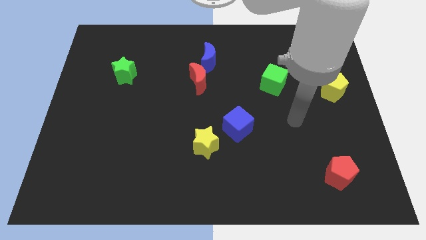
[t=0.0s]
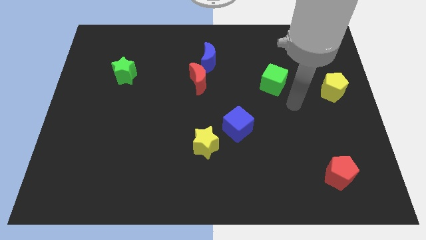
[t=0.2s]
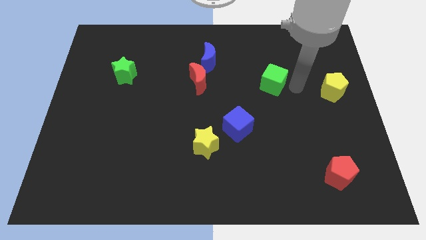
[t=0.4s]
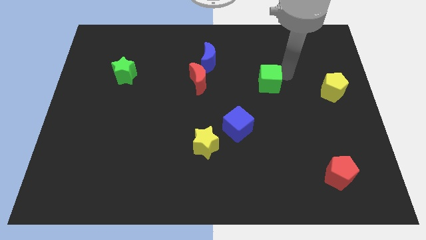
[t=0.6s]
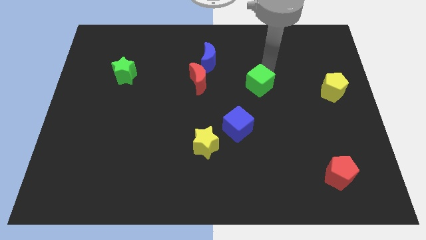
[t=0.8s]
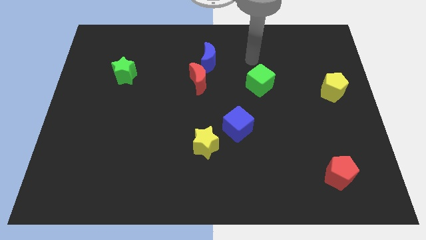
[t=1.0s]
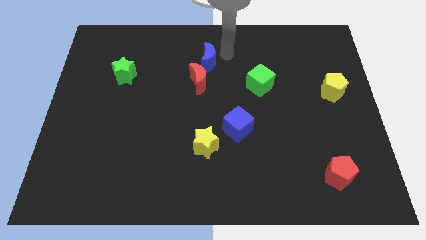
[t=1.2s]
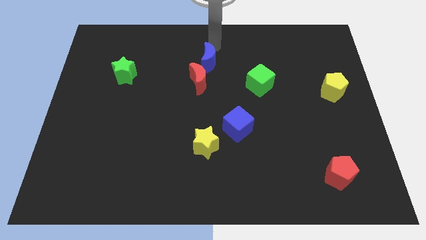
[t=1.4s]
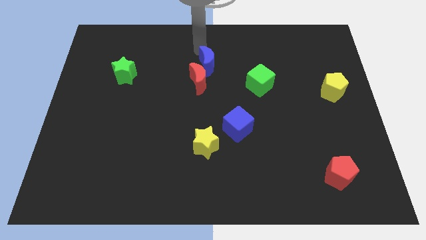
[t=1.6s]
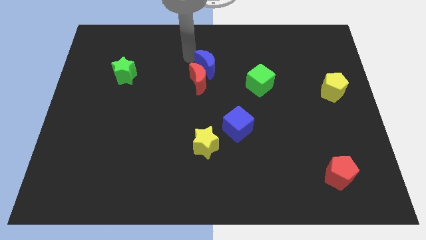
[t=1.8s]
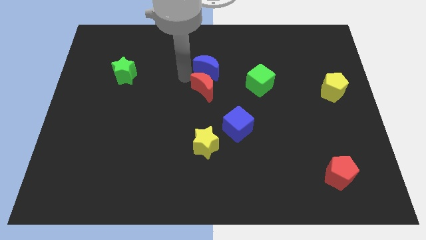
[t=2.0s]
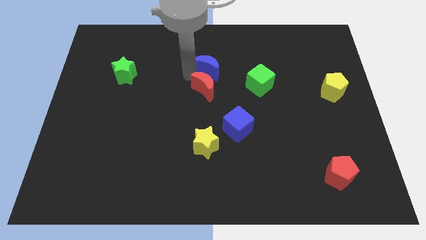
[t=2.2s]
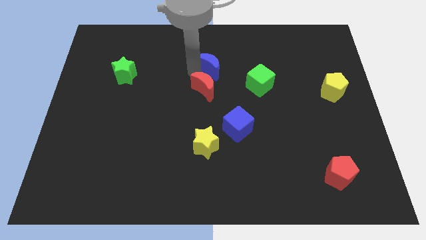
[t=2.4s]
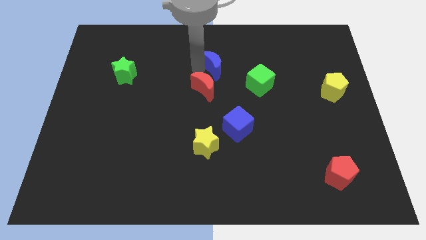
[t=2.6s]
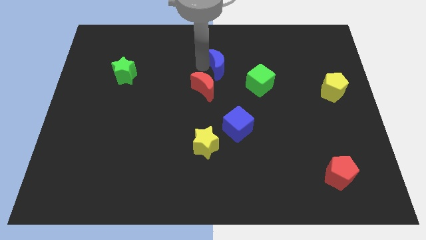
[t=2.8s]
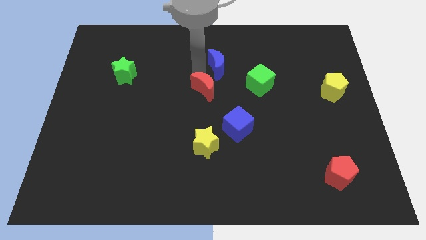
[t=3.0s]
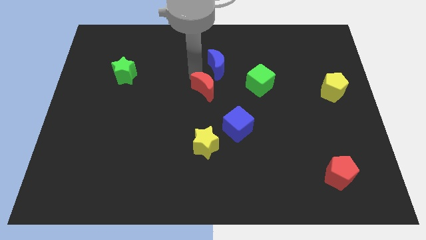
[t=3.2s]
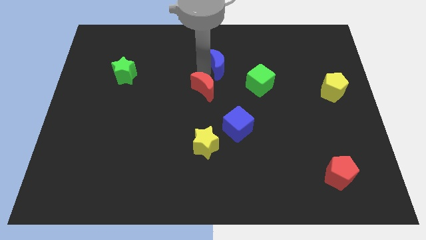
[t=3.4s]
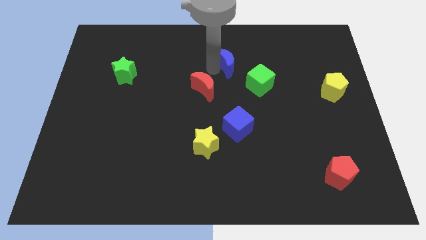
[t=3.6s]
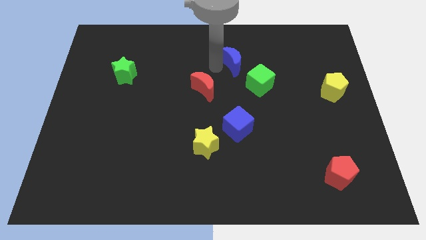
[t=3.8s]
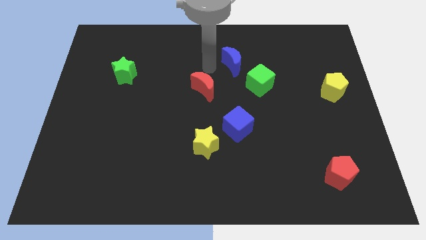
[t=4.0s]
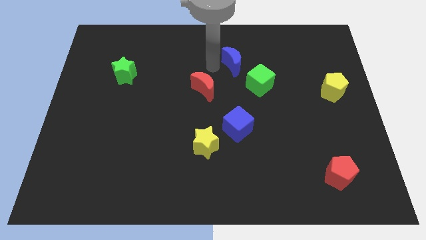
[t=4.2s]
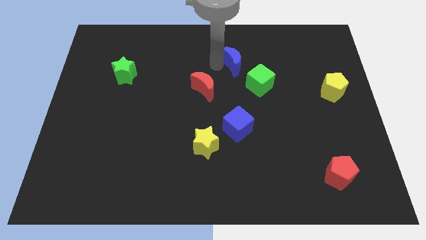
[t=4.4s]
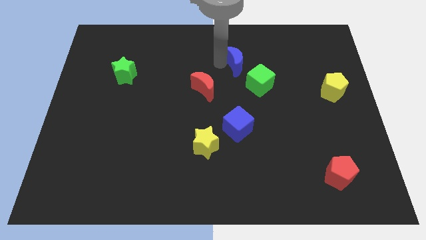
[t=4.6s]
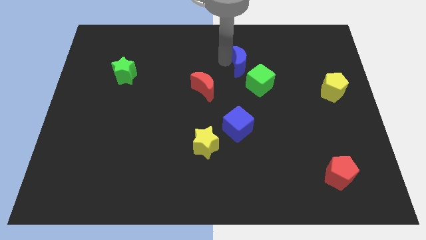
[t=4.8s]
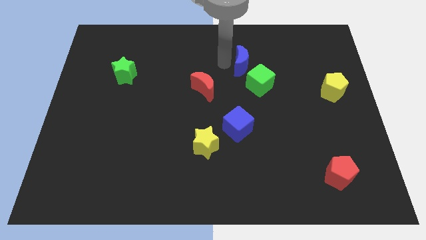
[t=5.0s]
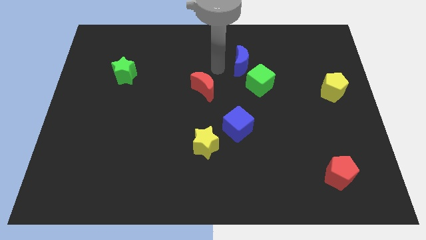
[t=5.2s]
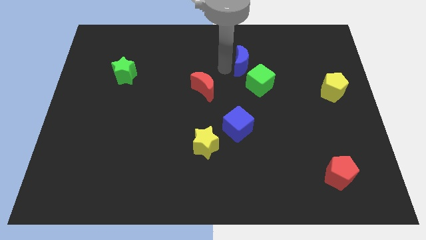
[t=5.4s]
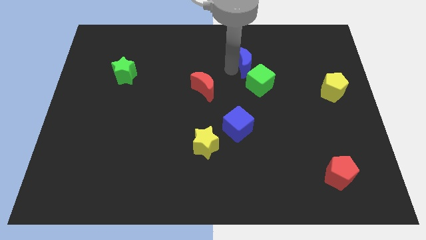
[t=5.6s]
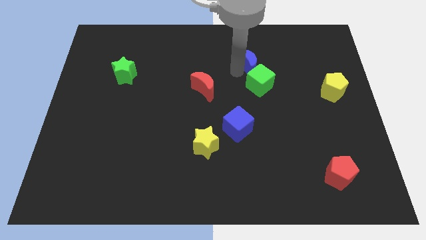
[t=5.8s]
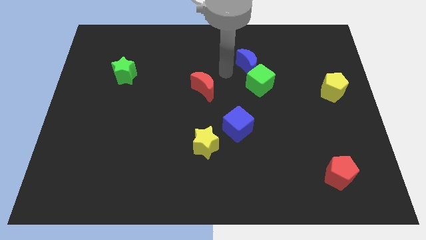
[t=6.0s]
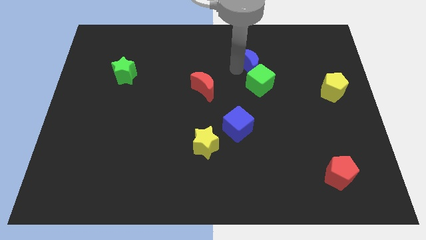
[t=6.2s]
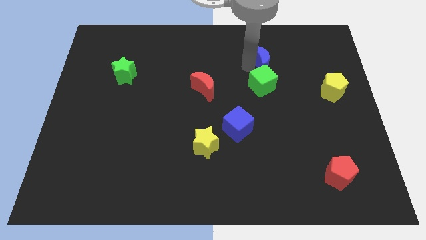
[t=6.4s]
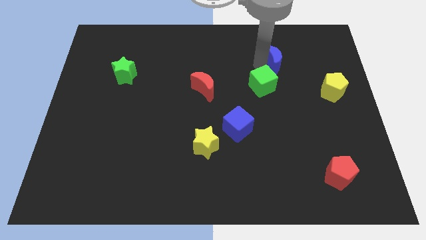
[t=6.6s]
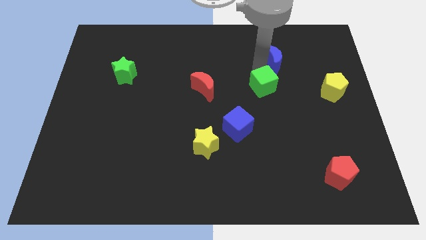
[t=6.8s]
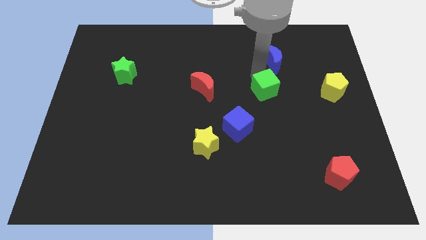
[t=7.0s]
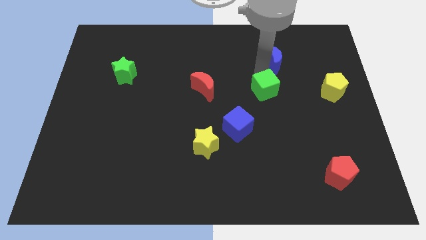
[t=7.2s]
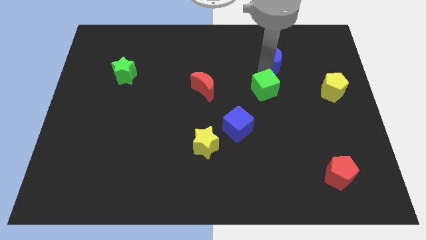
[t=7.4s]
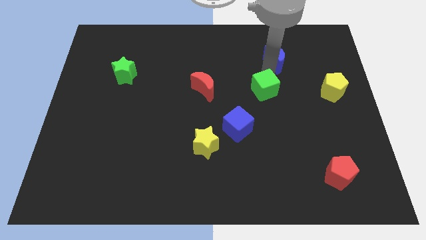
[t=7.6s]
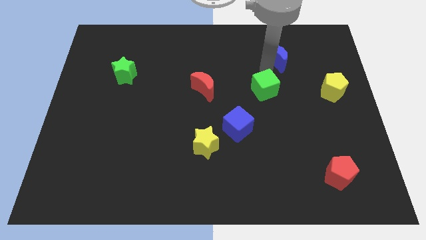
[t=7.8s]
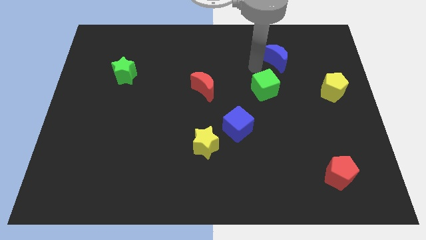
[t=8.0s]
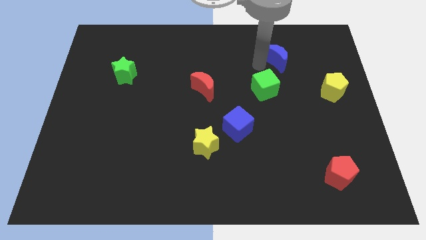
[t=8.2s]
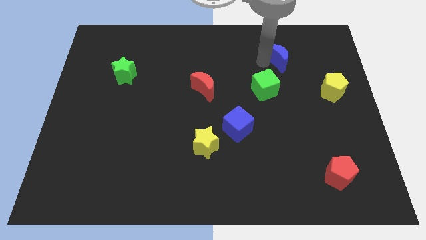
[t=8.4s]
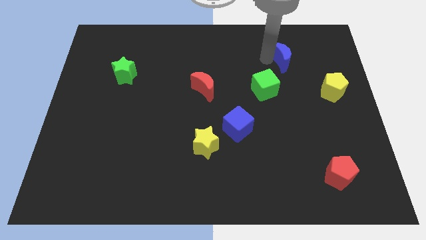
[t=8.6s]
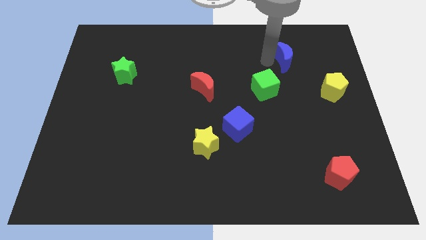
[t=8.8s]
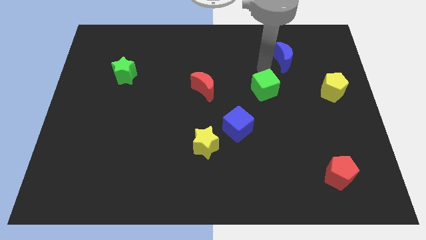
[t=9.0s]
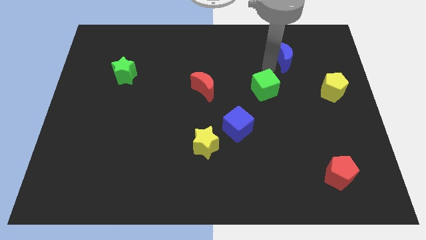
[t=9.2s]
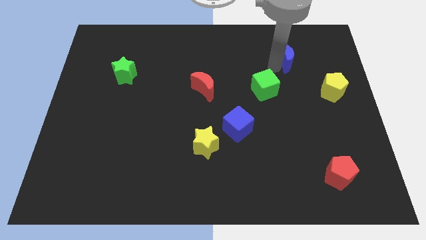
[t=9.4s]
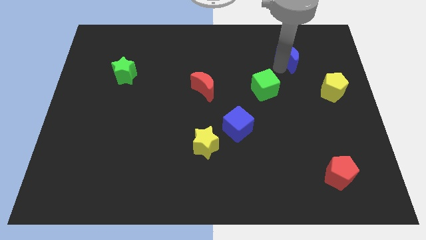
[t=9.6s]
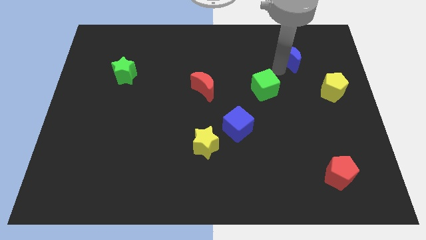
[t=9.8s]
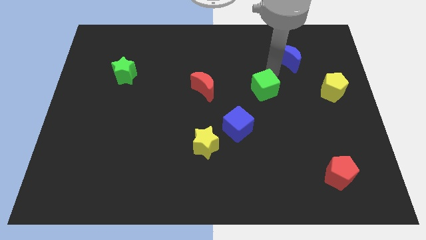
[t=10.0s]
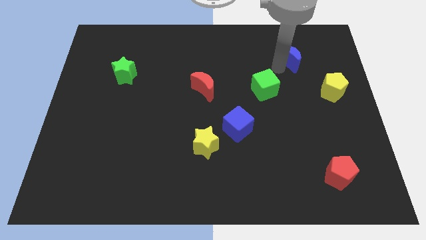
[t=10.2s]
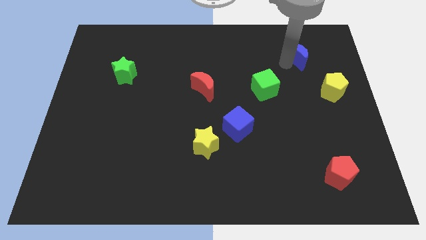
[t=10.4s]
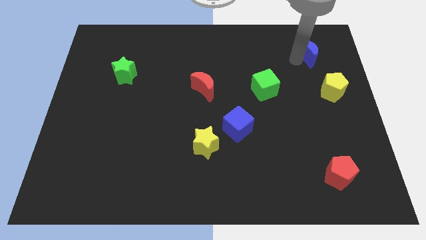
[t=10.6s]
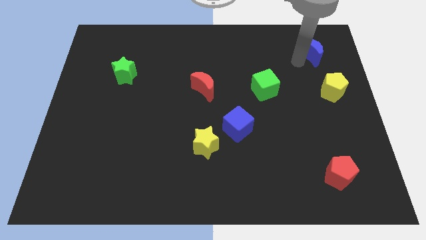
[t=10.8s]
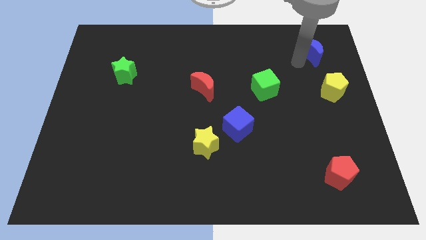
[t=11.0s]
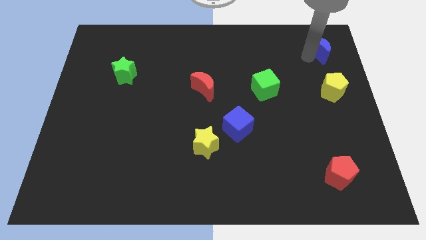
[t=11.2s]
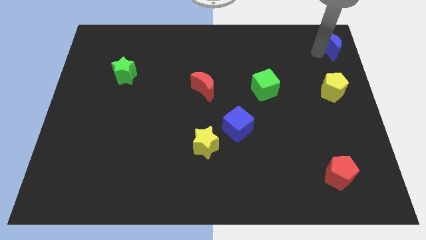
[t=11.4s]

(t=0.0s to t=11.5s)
push the blue moon to the top right
